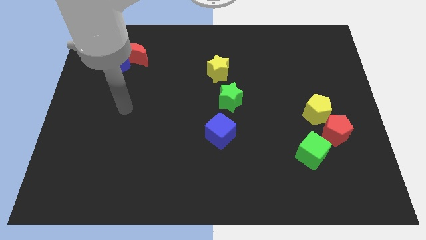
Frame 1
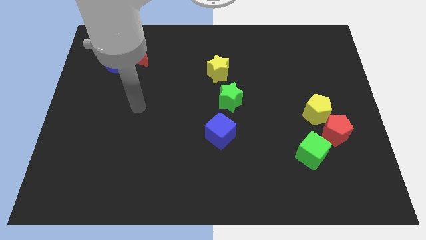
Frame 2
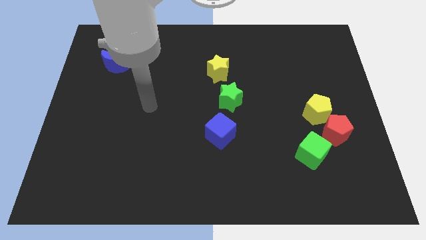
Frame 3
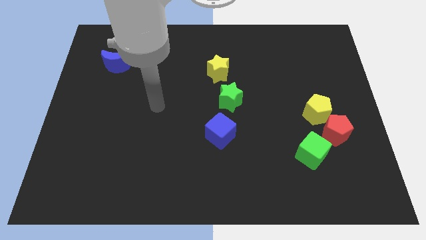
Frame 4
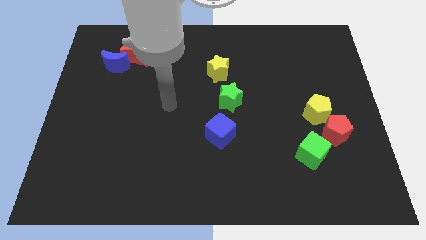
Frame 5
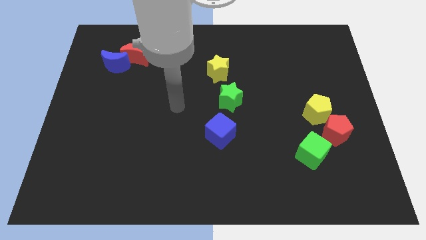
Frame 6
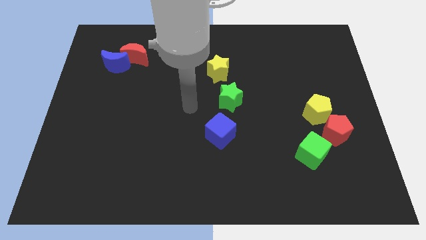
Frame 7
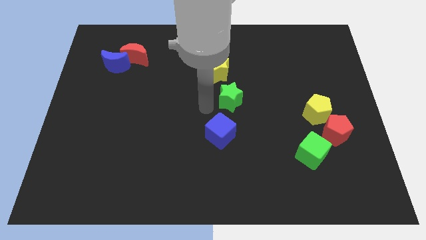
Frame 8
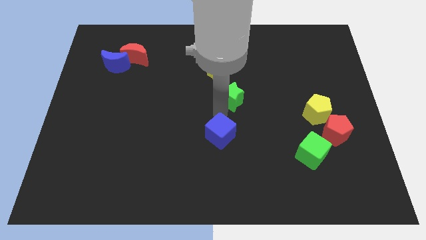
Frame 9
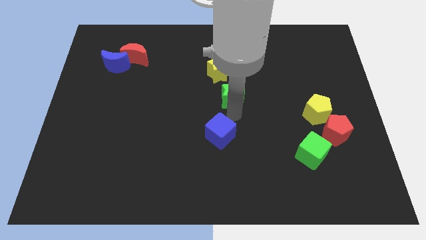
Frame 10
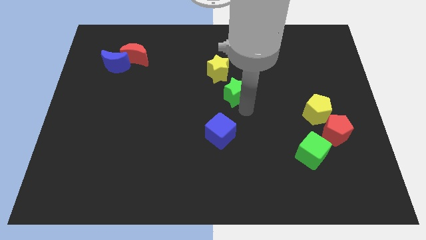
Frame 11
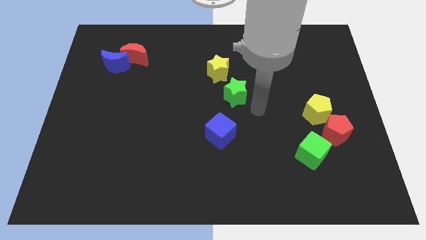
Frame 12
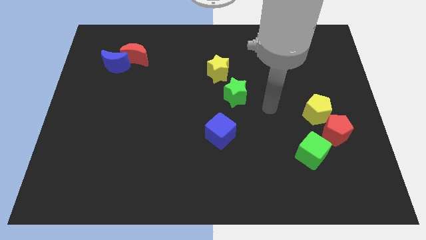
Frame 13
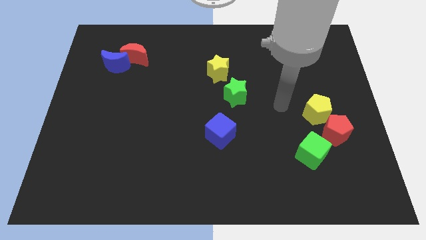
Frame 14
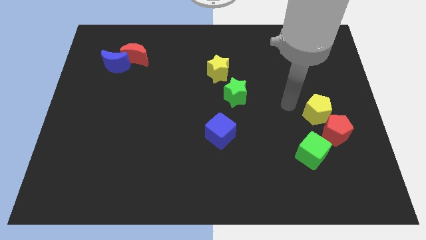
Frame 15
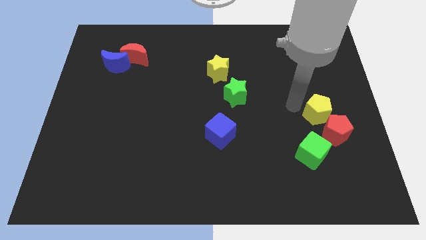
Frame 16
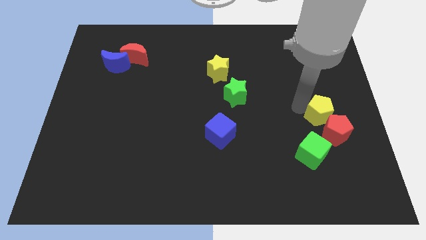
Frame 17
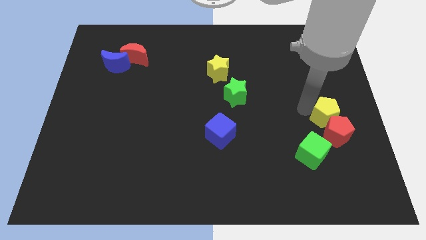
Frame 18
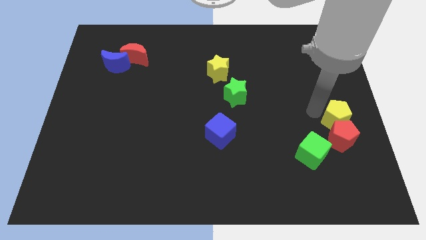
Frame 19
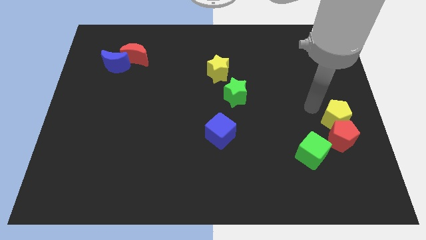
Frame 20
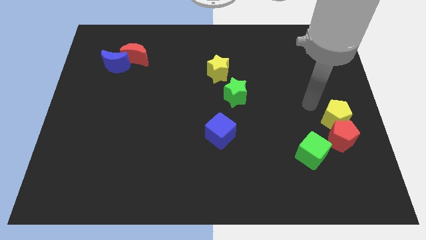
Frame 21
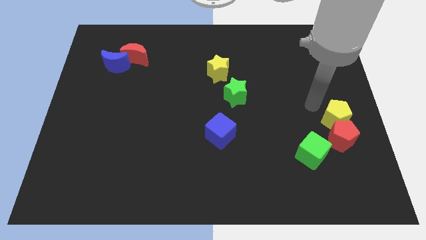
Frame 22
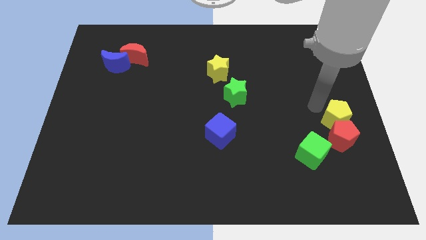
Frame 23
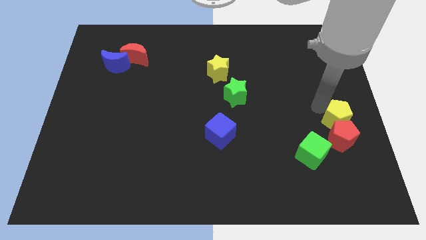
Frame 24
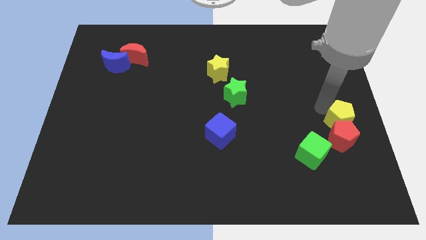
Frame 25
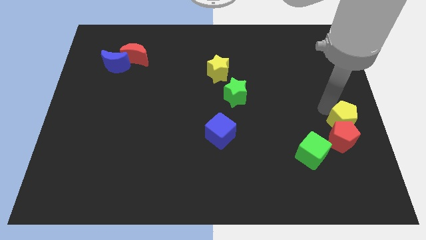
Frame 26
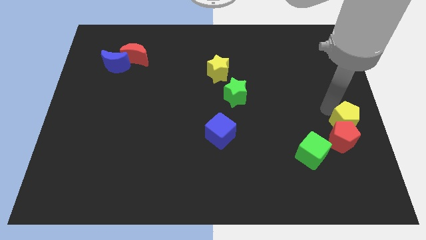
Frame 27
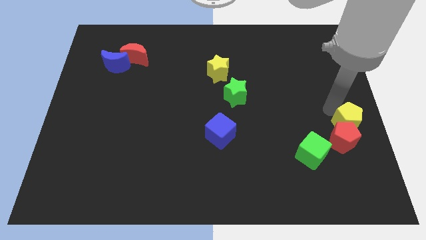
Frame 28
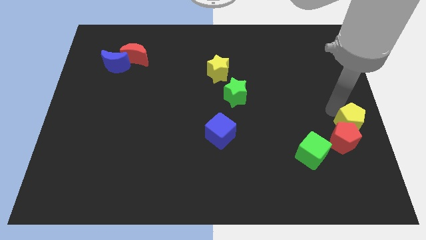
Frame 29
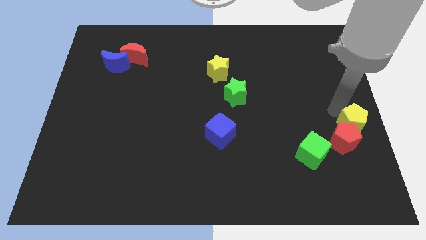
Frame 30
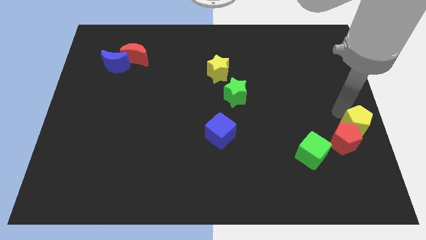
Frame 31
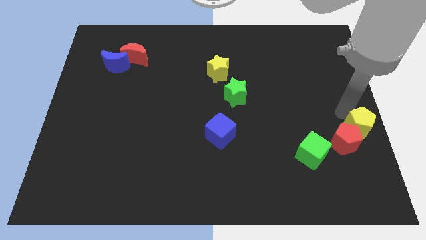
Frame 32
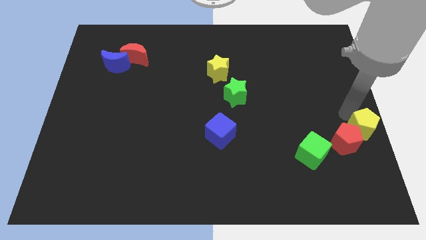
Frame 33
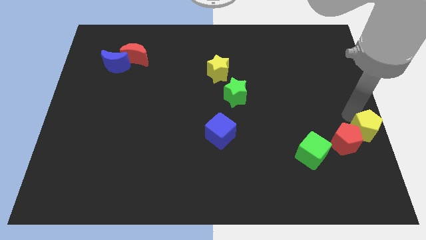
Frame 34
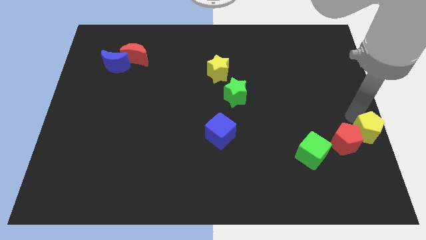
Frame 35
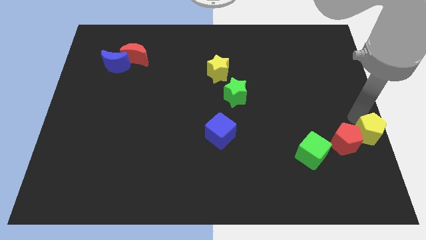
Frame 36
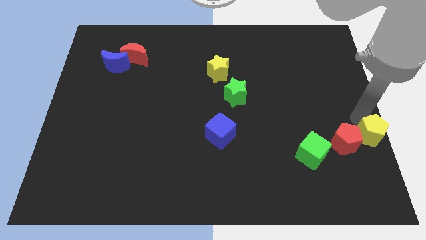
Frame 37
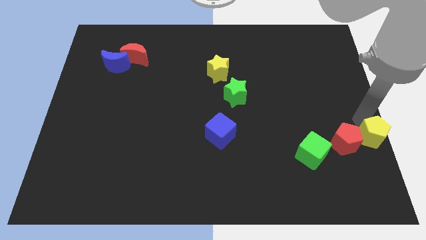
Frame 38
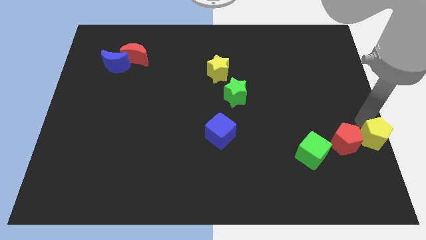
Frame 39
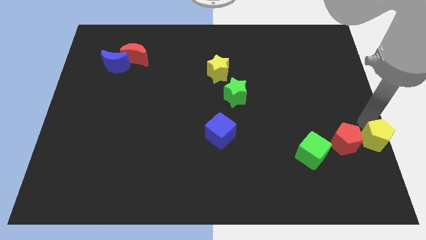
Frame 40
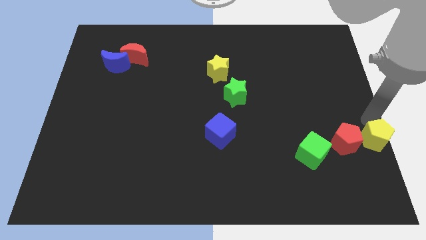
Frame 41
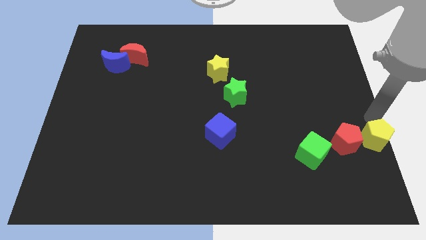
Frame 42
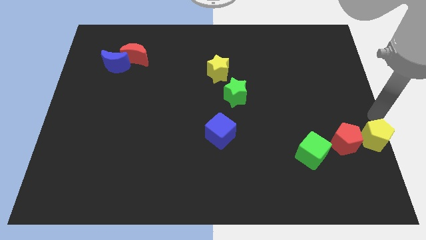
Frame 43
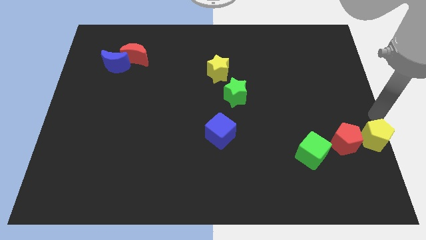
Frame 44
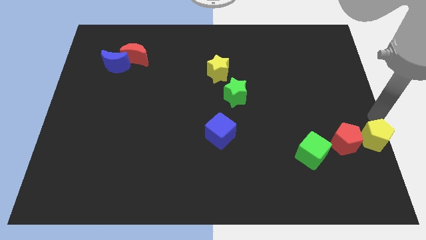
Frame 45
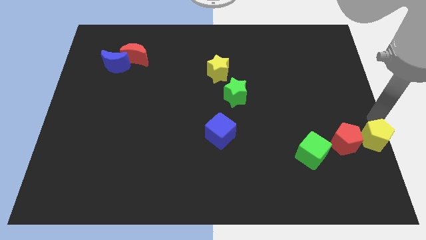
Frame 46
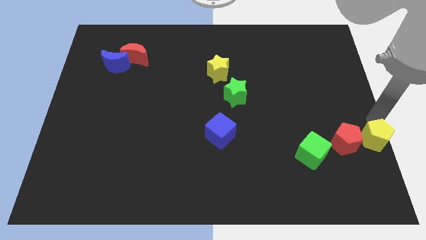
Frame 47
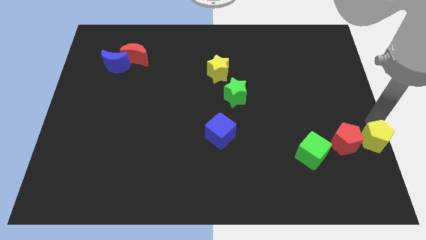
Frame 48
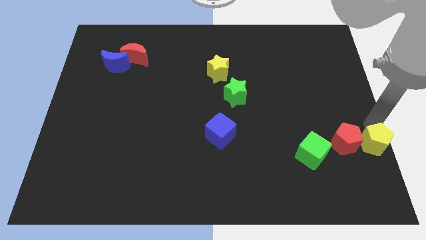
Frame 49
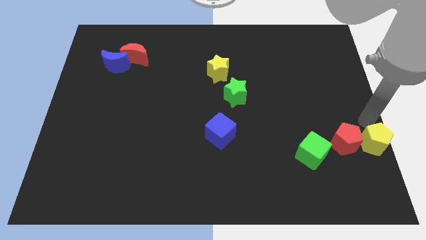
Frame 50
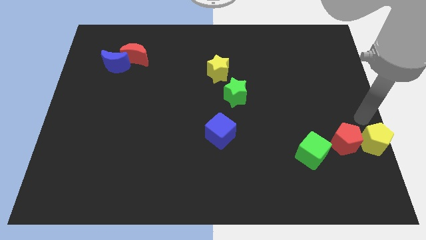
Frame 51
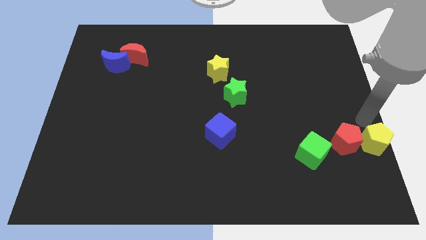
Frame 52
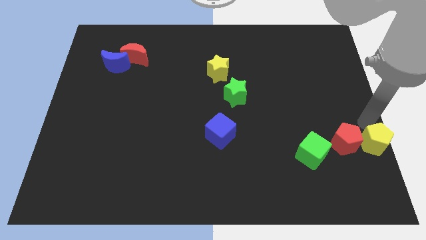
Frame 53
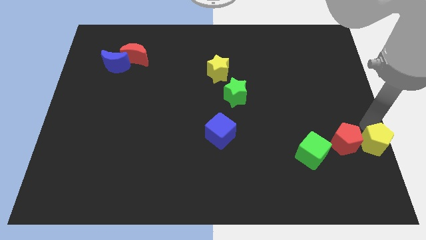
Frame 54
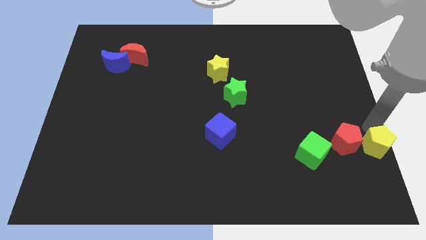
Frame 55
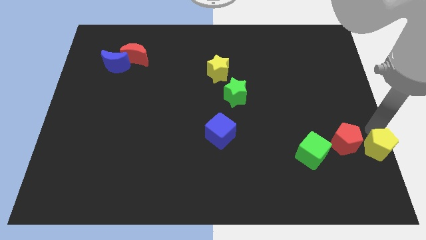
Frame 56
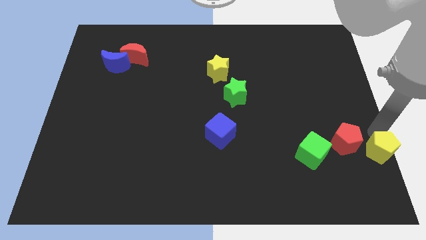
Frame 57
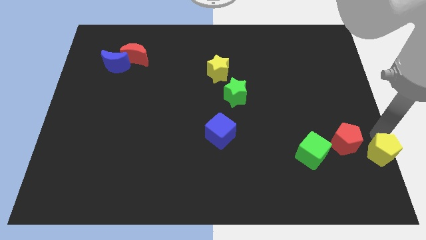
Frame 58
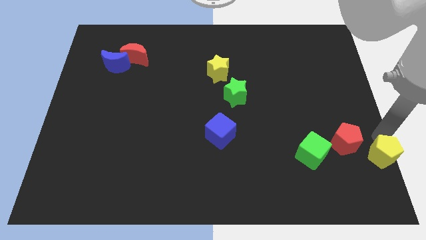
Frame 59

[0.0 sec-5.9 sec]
push the yellow pentagon to the lower right corner

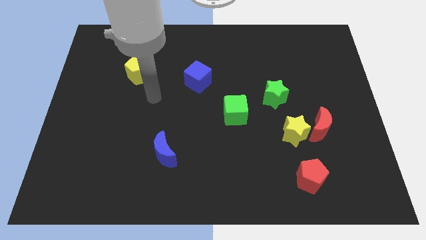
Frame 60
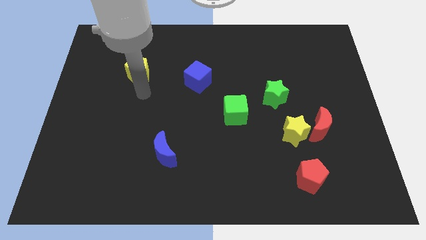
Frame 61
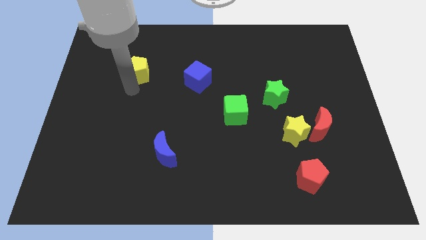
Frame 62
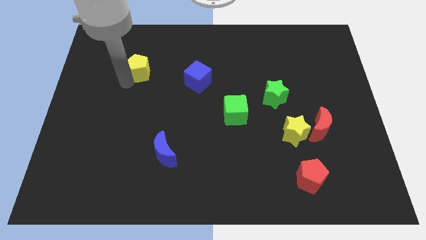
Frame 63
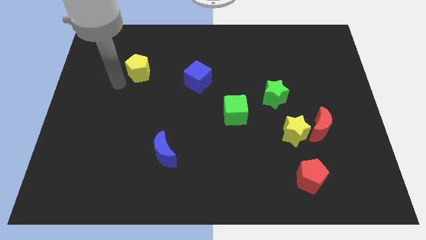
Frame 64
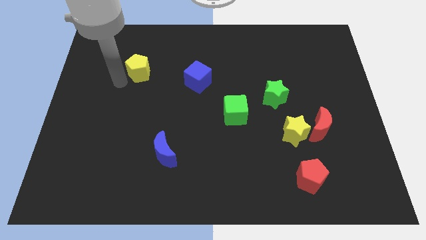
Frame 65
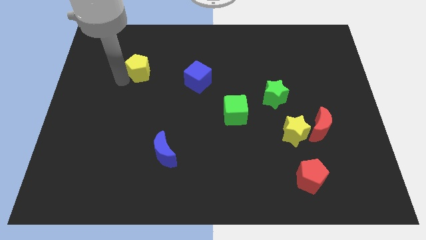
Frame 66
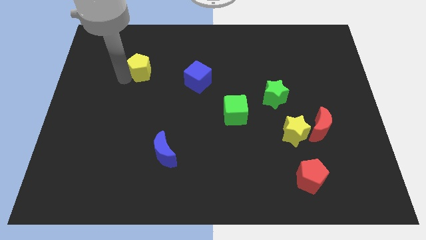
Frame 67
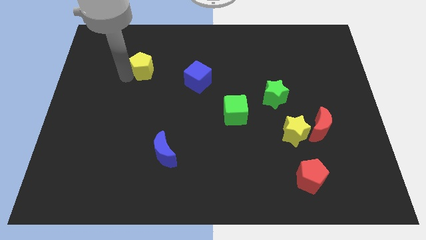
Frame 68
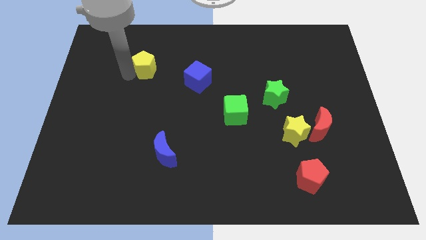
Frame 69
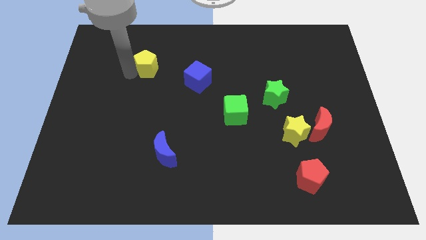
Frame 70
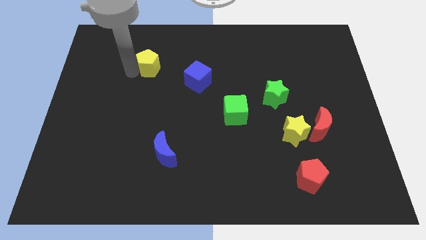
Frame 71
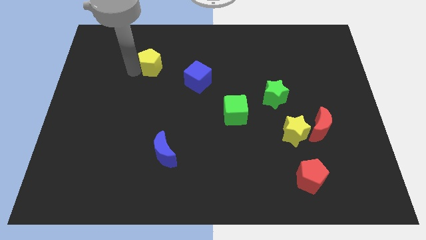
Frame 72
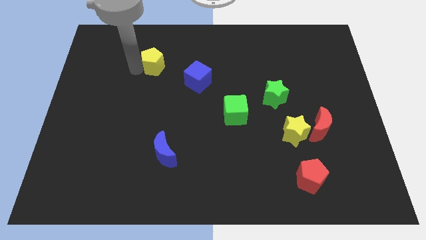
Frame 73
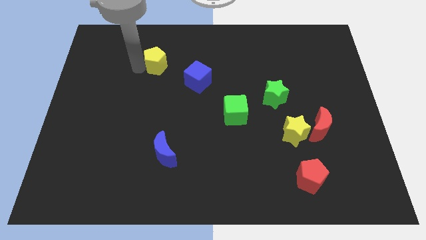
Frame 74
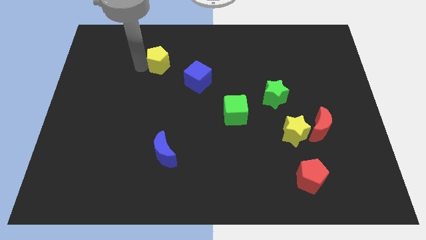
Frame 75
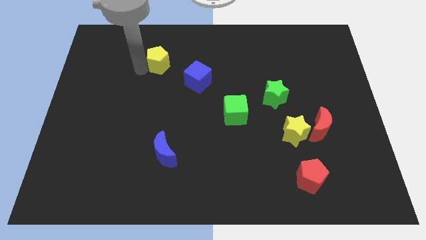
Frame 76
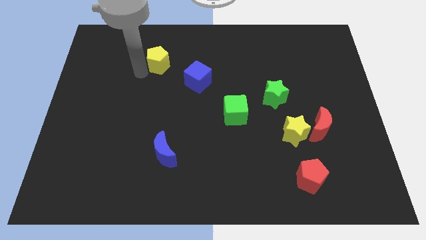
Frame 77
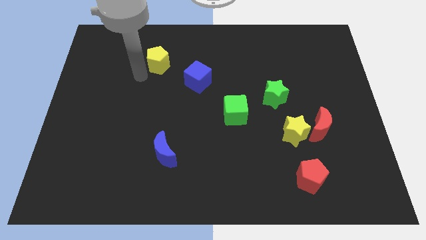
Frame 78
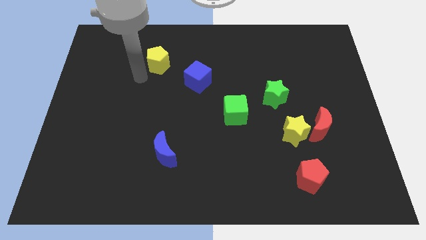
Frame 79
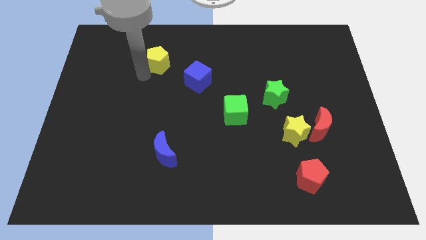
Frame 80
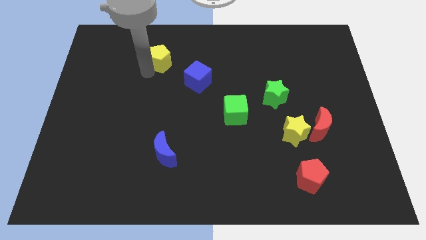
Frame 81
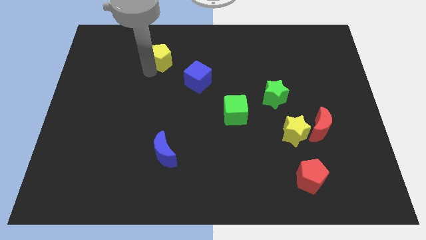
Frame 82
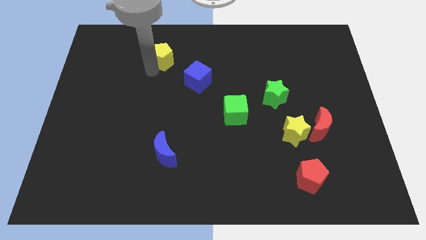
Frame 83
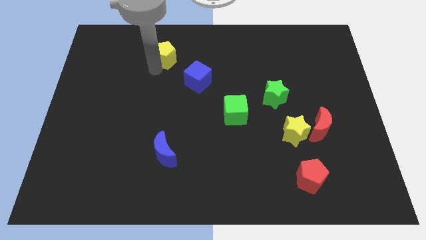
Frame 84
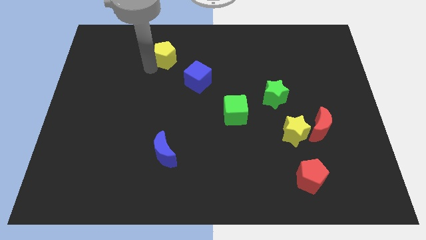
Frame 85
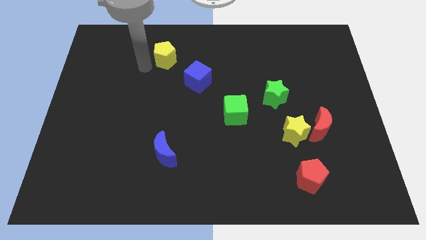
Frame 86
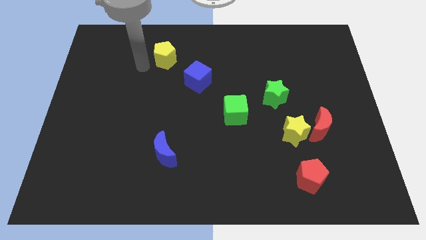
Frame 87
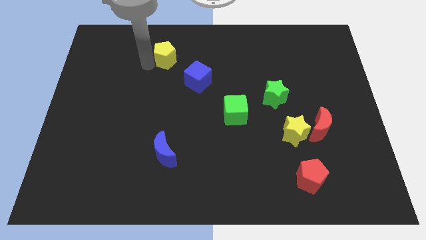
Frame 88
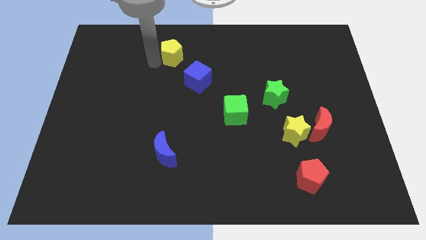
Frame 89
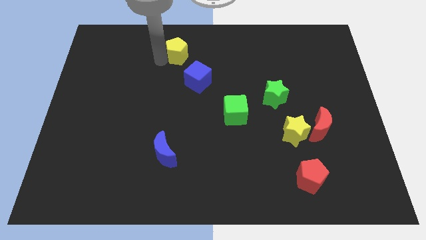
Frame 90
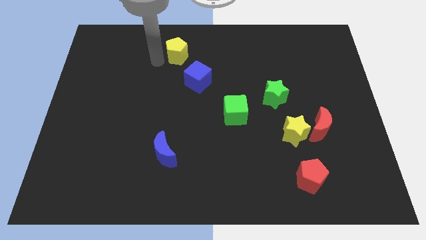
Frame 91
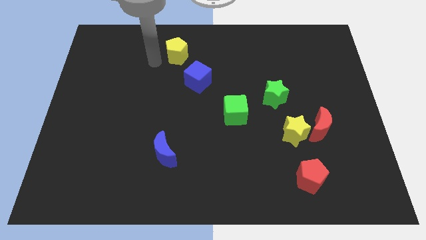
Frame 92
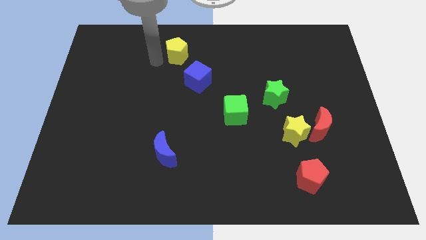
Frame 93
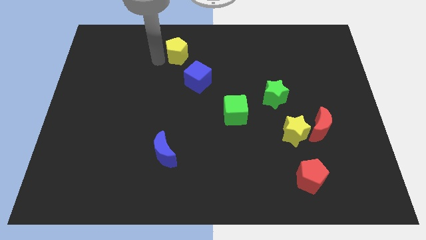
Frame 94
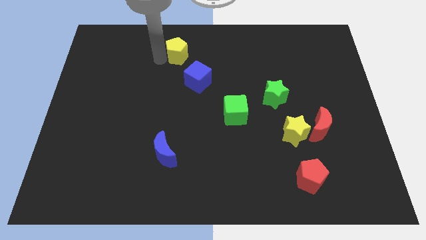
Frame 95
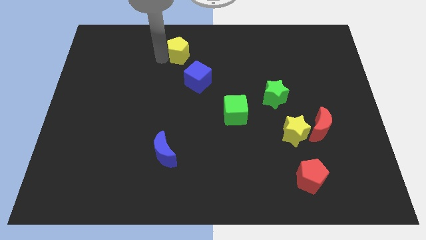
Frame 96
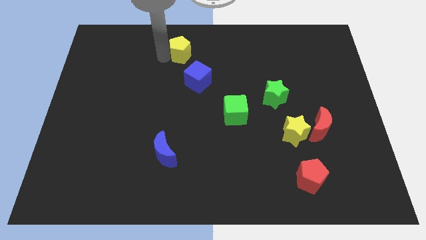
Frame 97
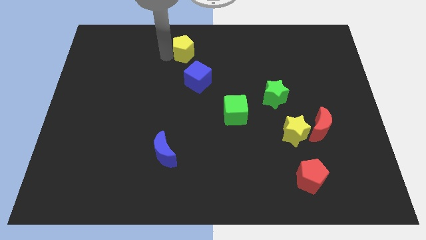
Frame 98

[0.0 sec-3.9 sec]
put the yellow pentagon to the top
